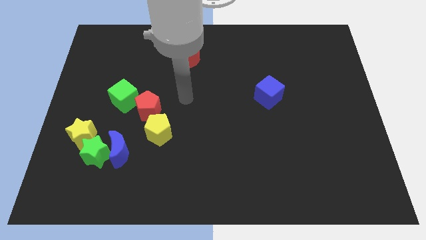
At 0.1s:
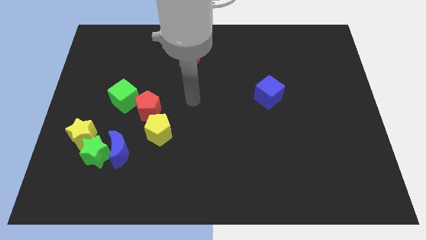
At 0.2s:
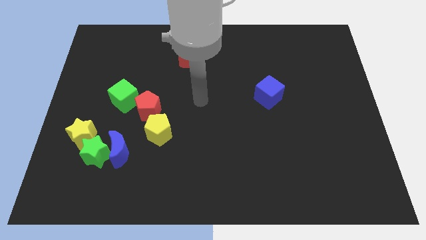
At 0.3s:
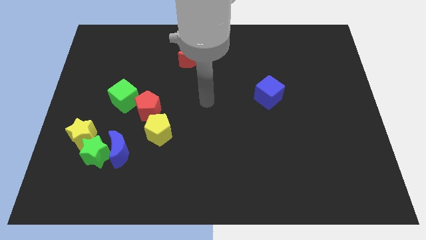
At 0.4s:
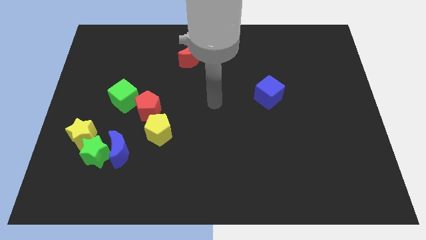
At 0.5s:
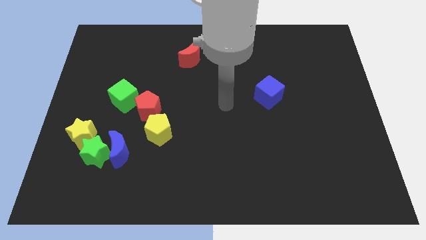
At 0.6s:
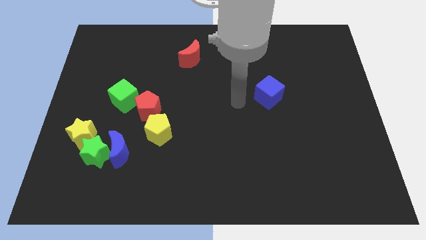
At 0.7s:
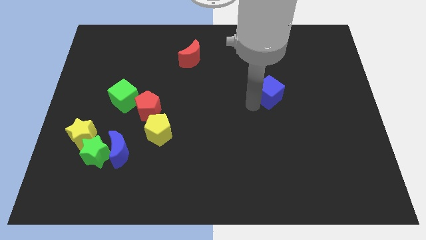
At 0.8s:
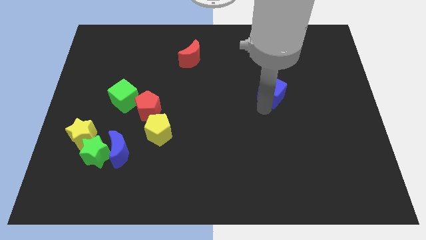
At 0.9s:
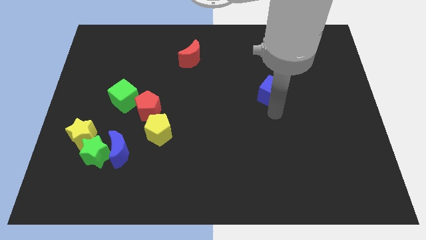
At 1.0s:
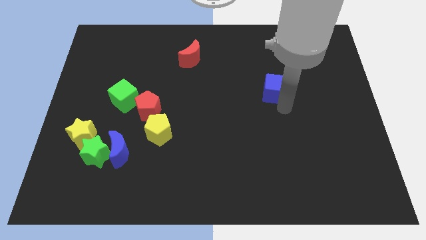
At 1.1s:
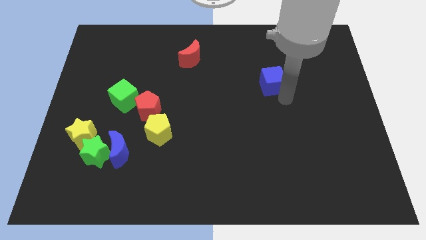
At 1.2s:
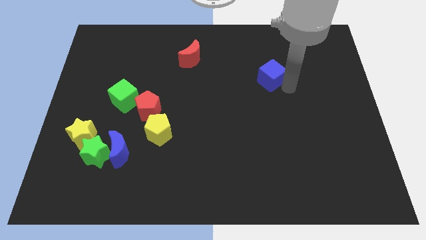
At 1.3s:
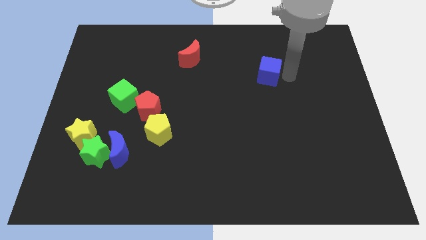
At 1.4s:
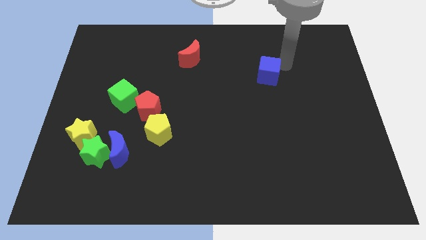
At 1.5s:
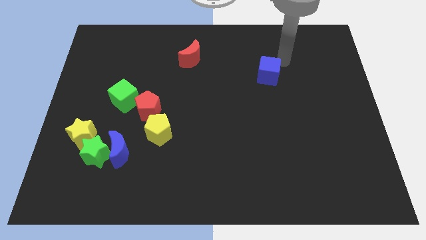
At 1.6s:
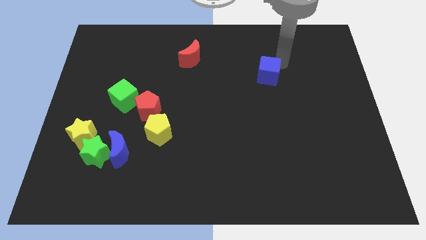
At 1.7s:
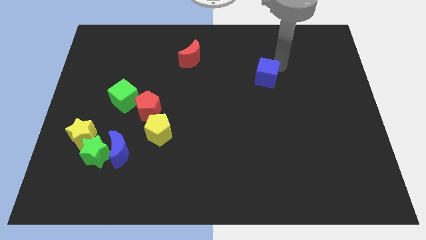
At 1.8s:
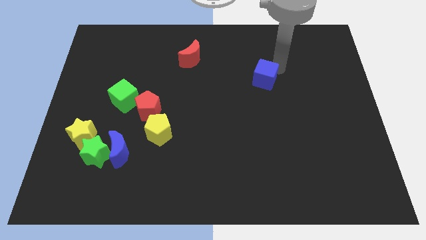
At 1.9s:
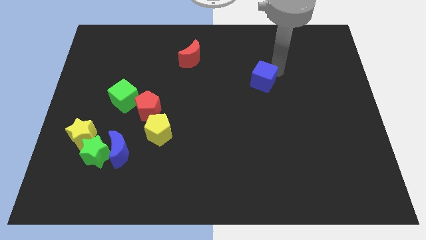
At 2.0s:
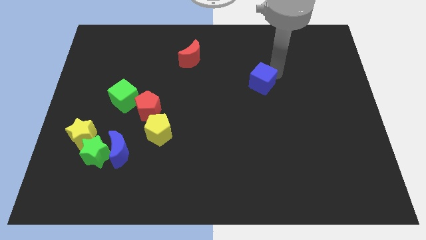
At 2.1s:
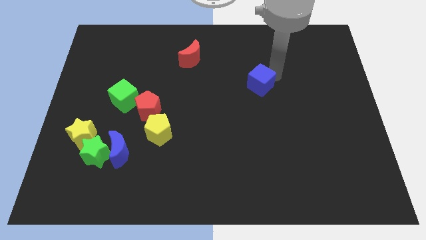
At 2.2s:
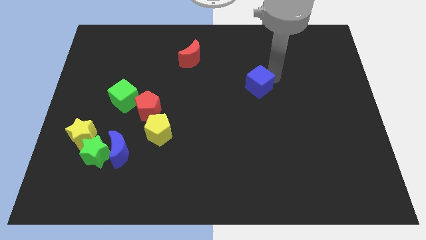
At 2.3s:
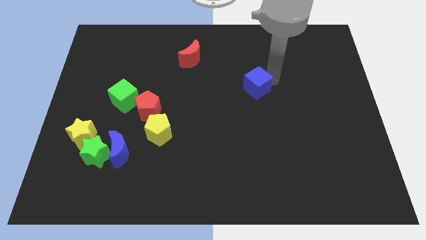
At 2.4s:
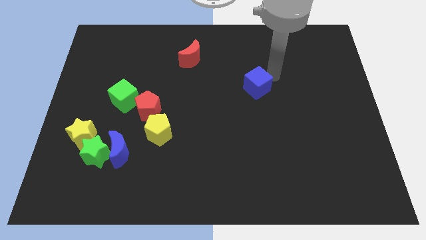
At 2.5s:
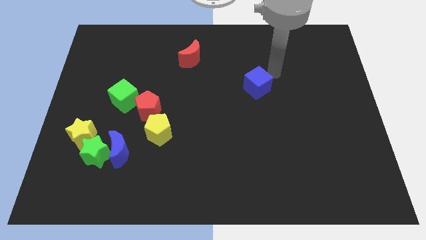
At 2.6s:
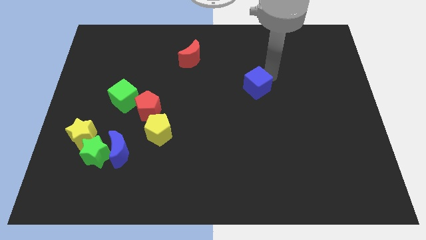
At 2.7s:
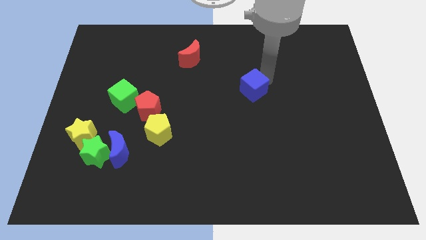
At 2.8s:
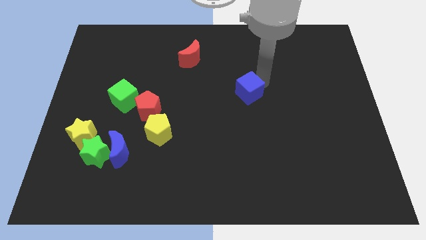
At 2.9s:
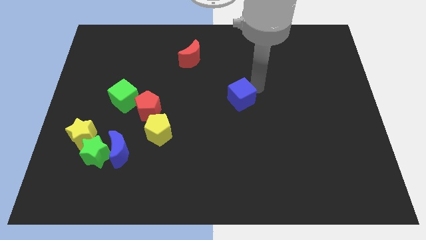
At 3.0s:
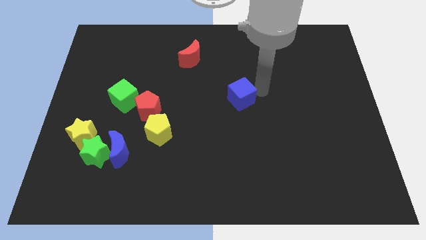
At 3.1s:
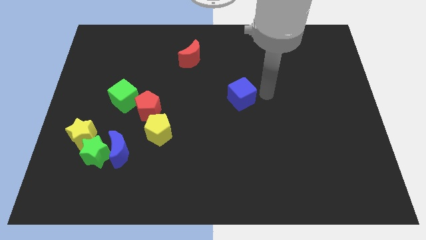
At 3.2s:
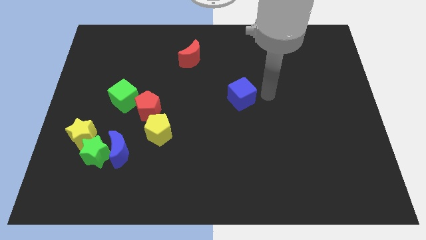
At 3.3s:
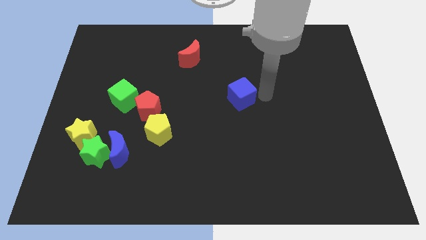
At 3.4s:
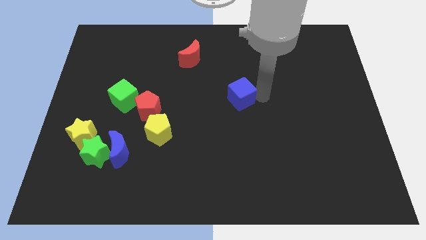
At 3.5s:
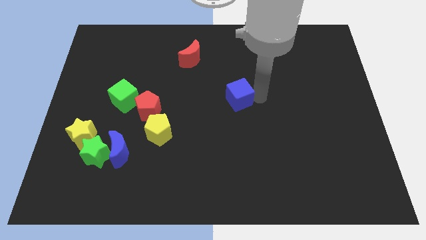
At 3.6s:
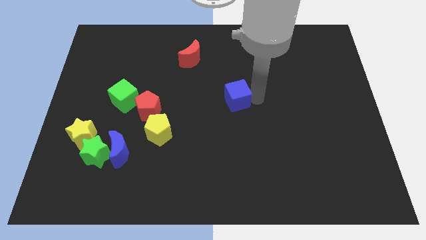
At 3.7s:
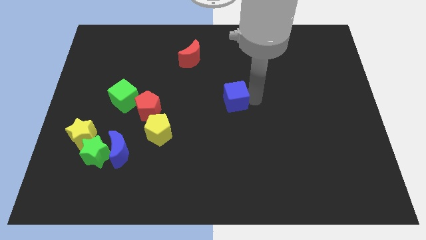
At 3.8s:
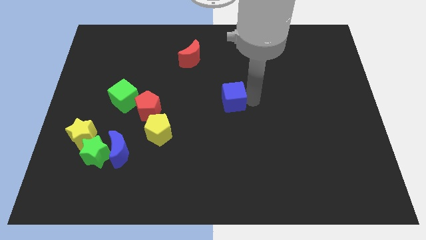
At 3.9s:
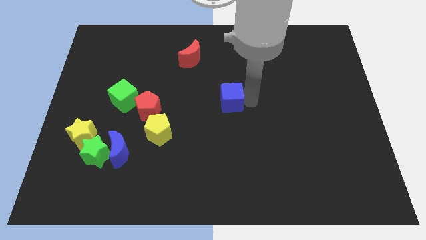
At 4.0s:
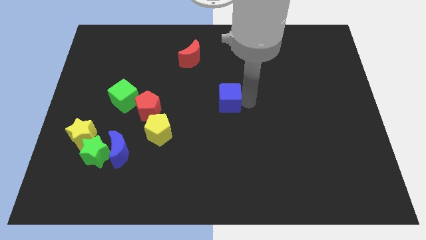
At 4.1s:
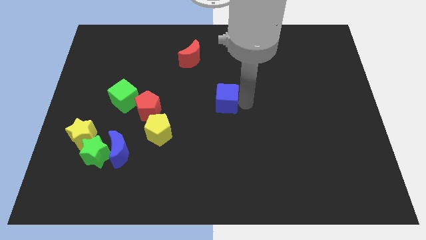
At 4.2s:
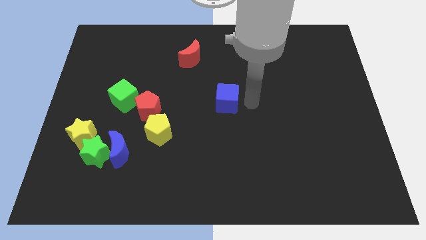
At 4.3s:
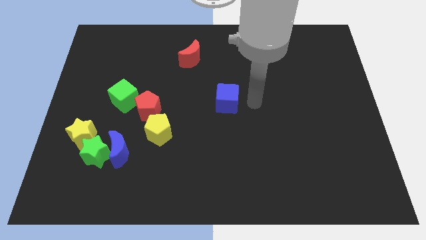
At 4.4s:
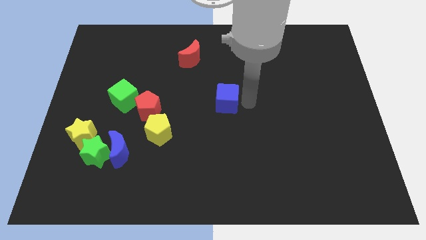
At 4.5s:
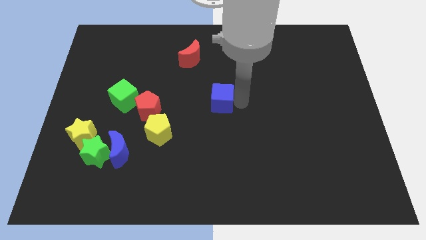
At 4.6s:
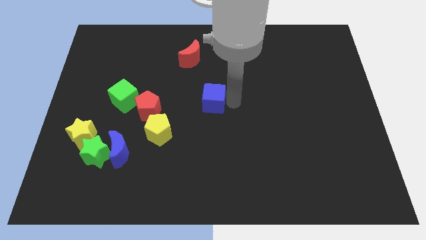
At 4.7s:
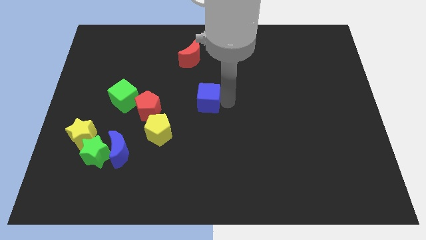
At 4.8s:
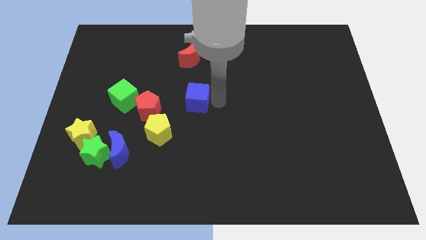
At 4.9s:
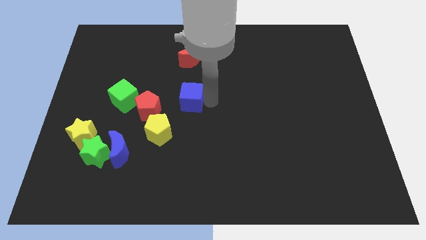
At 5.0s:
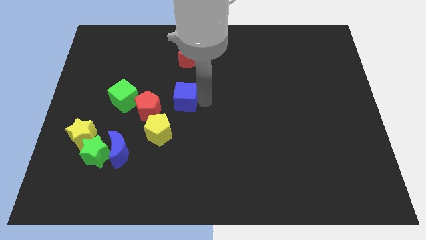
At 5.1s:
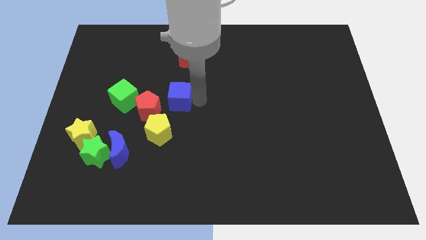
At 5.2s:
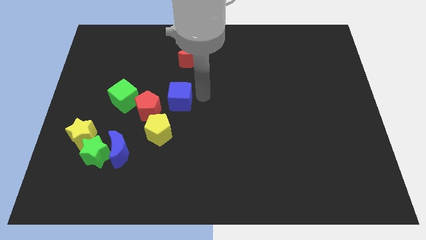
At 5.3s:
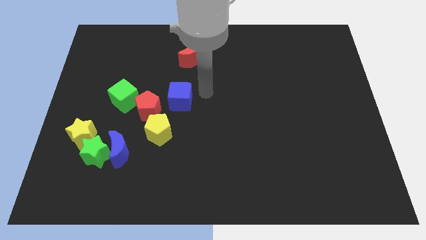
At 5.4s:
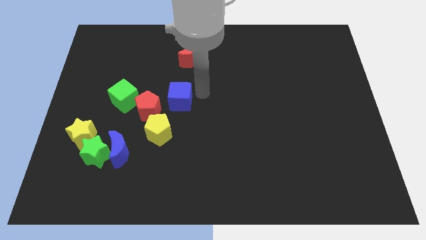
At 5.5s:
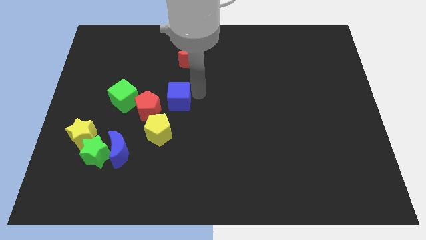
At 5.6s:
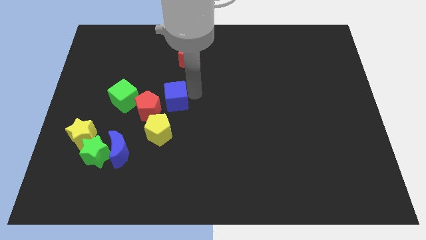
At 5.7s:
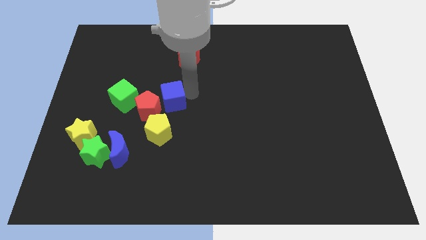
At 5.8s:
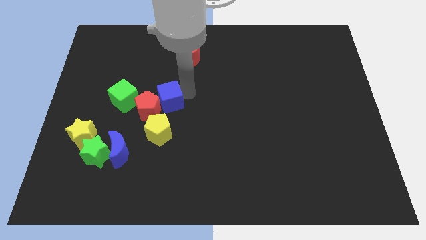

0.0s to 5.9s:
slide the blue cube next to the red pentagon

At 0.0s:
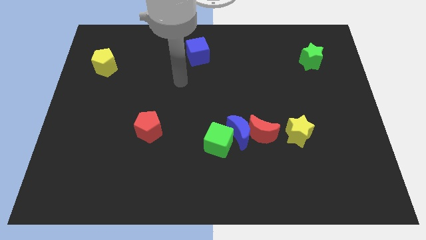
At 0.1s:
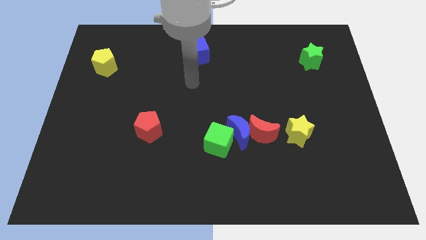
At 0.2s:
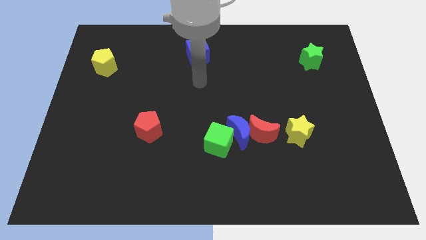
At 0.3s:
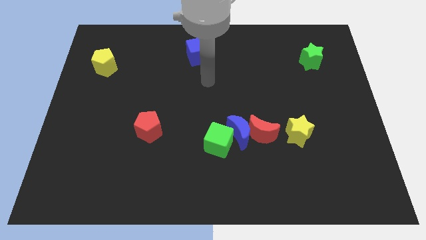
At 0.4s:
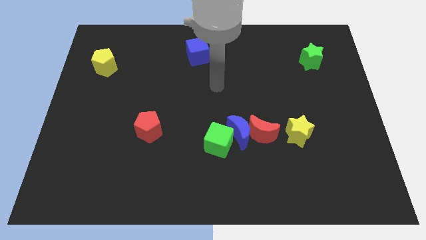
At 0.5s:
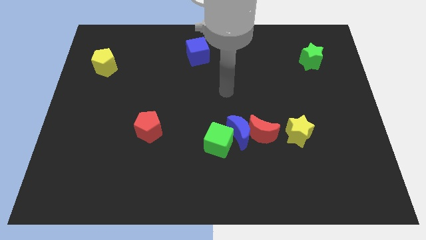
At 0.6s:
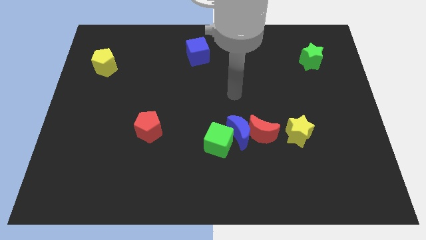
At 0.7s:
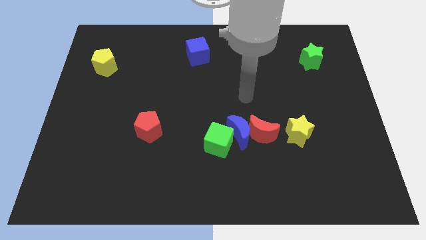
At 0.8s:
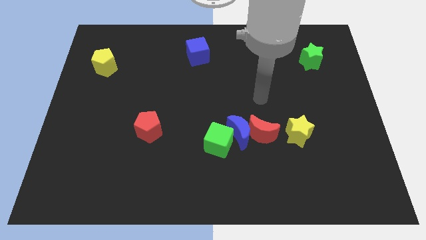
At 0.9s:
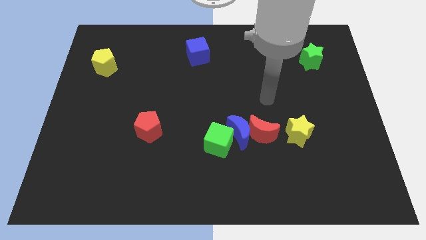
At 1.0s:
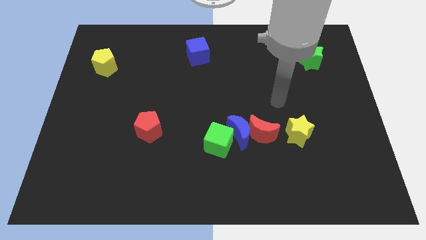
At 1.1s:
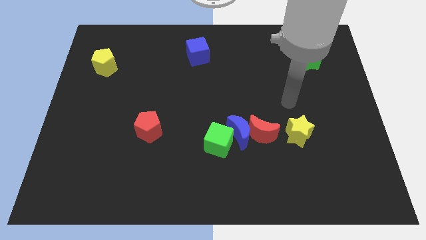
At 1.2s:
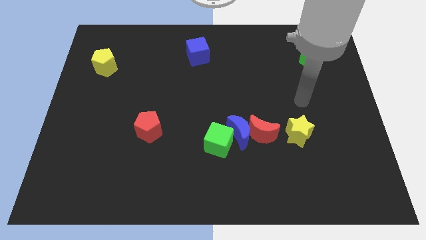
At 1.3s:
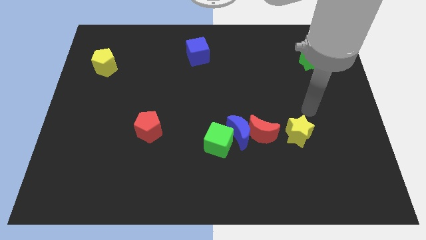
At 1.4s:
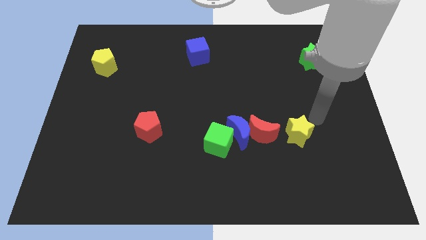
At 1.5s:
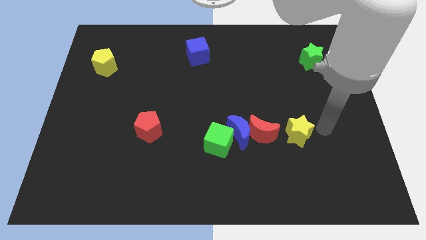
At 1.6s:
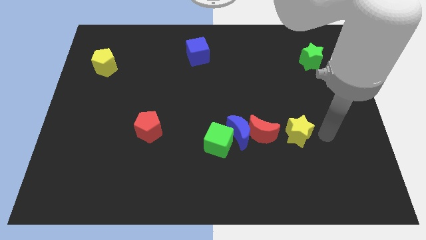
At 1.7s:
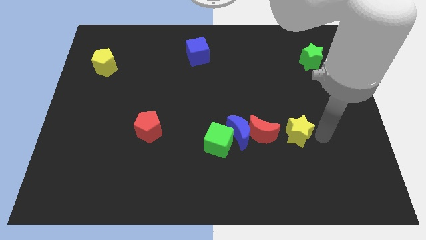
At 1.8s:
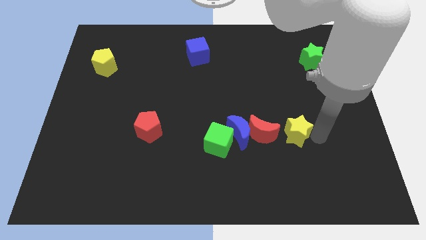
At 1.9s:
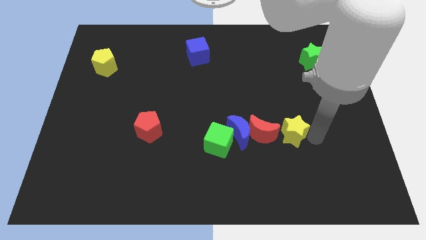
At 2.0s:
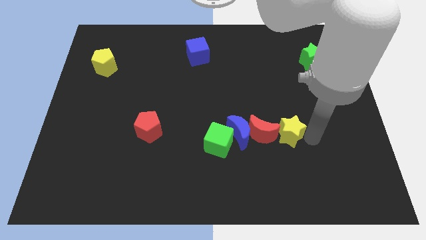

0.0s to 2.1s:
move the yellow star towards the red moon
